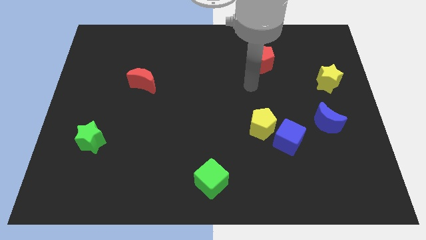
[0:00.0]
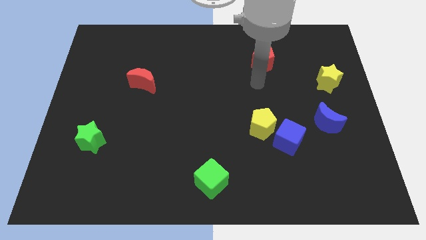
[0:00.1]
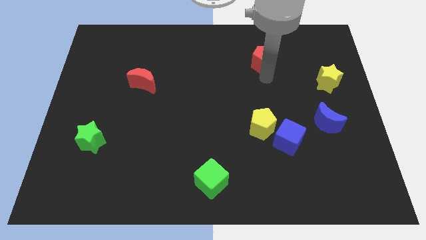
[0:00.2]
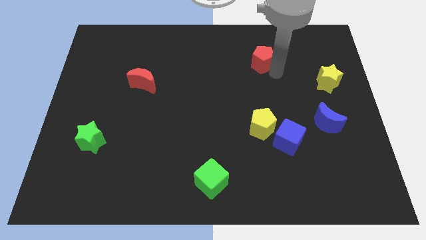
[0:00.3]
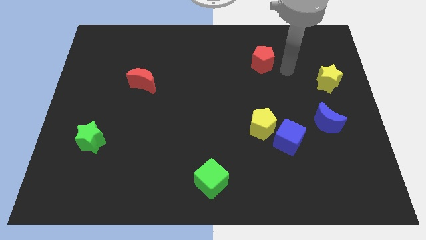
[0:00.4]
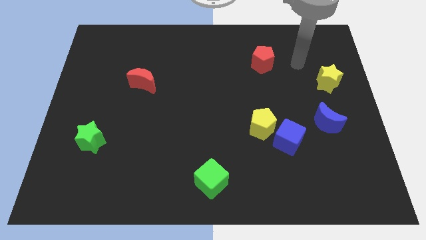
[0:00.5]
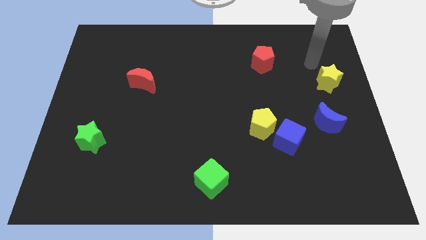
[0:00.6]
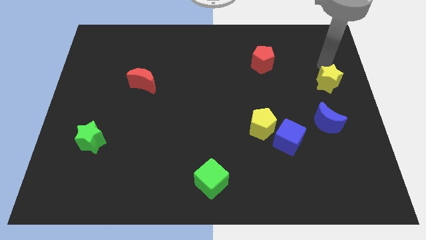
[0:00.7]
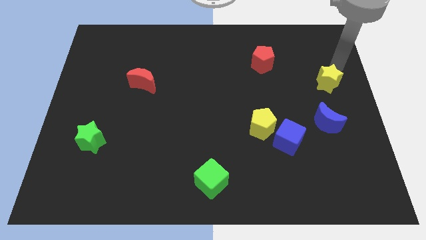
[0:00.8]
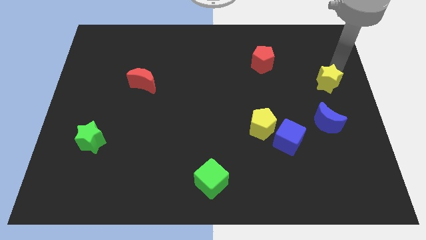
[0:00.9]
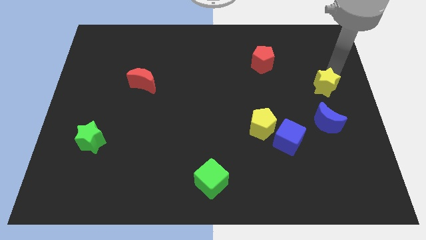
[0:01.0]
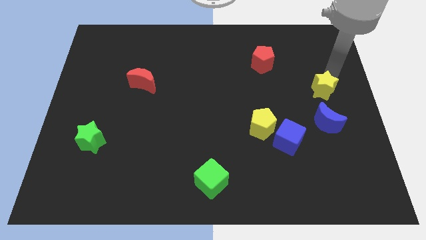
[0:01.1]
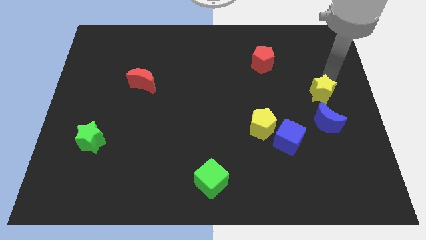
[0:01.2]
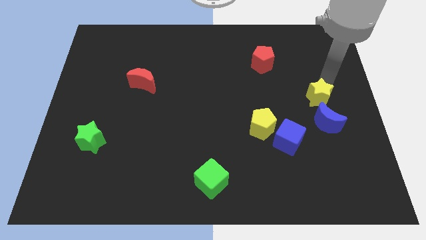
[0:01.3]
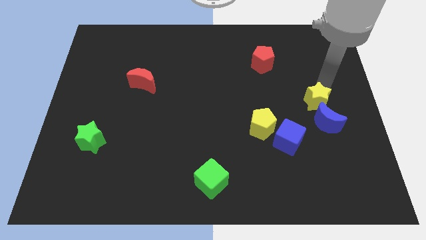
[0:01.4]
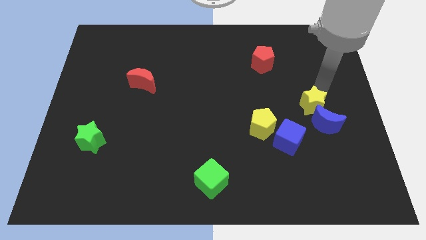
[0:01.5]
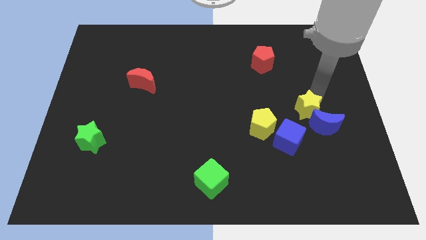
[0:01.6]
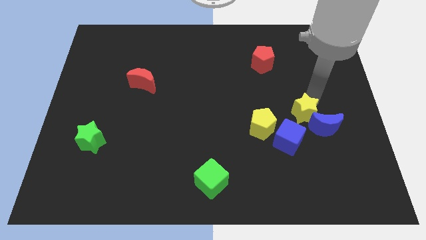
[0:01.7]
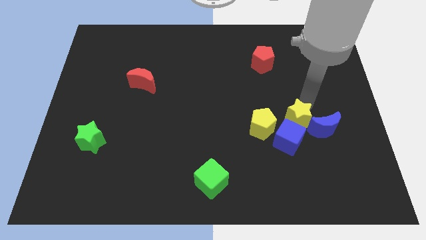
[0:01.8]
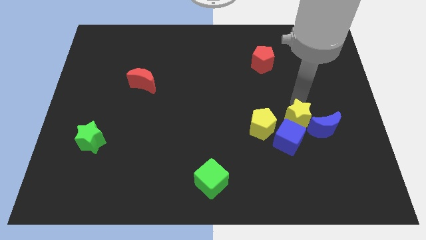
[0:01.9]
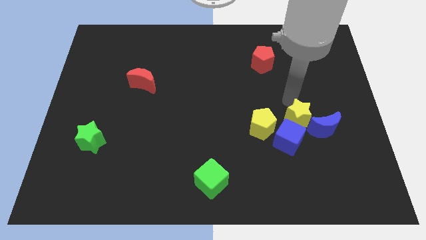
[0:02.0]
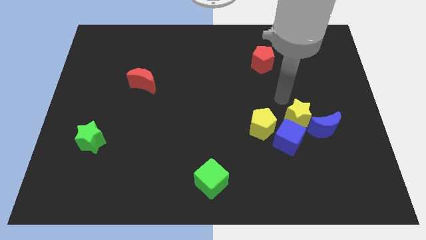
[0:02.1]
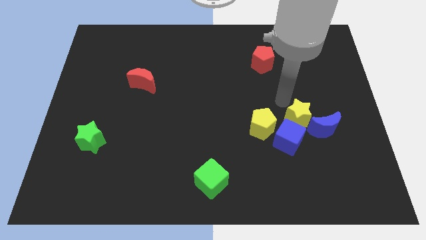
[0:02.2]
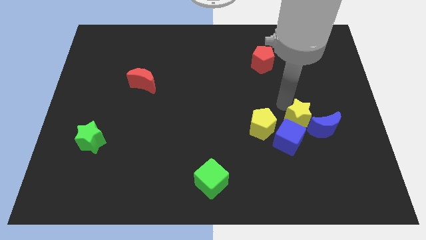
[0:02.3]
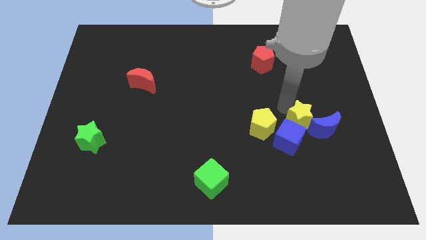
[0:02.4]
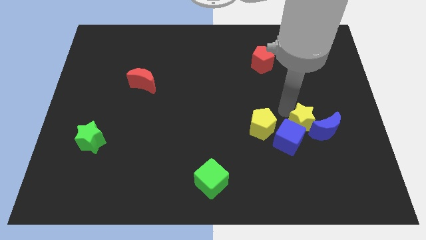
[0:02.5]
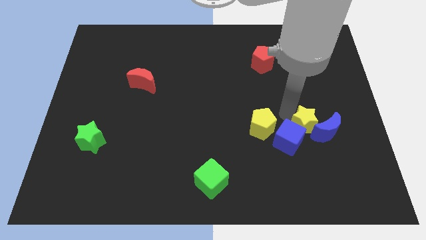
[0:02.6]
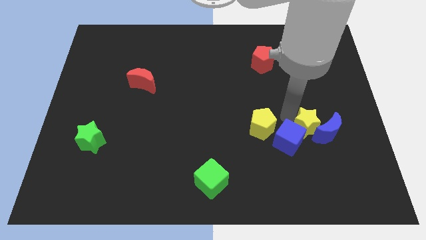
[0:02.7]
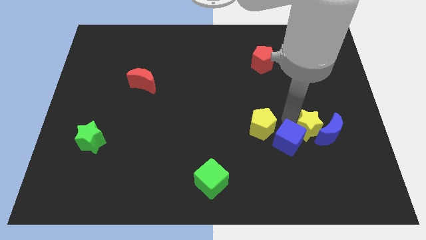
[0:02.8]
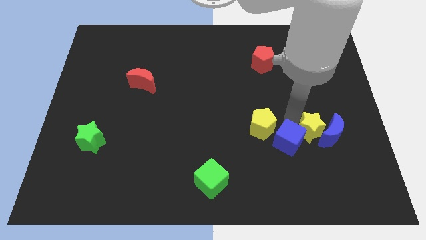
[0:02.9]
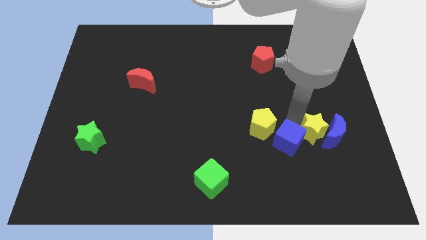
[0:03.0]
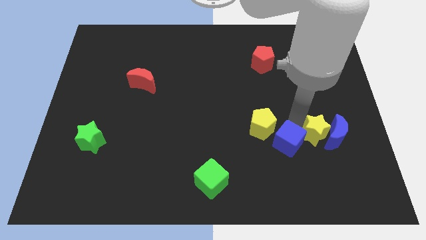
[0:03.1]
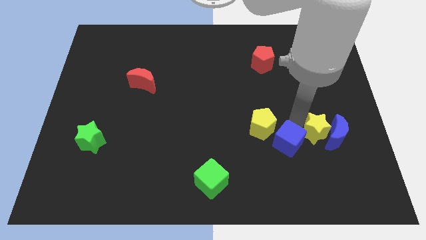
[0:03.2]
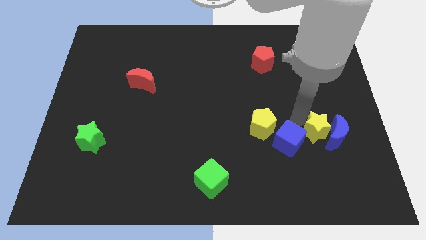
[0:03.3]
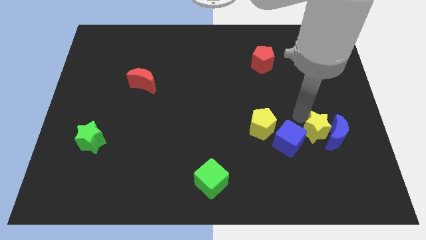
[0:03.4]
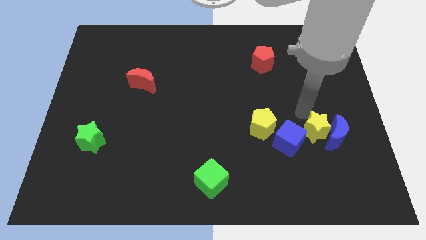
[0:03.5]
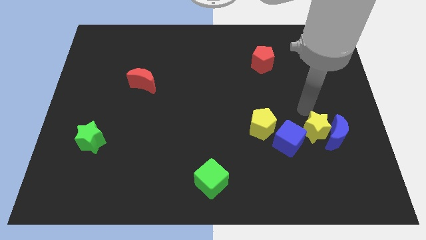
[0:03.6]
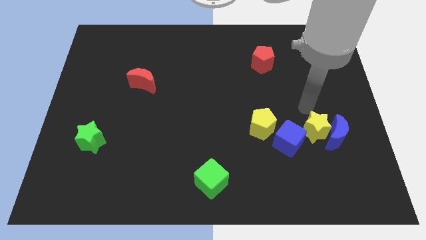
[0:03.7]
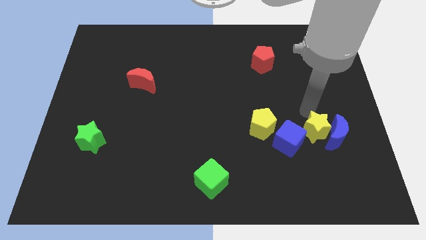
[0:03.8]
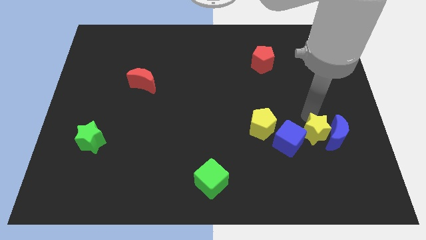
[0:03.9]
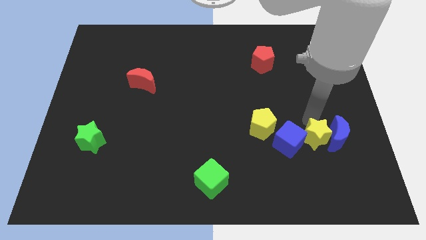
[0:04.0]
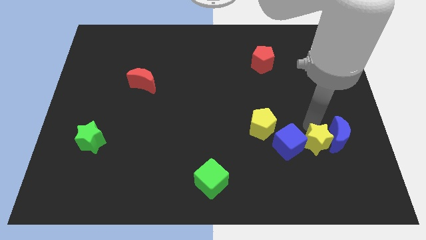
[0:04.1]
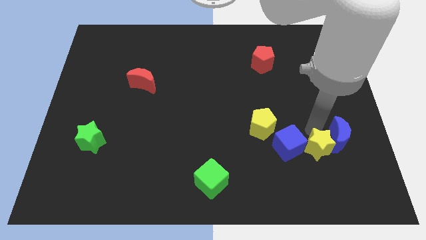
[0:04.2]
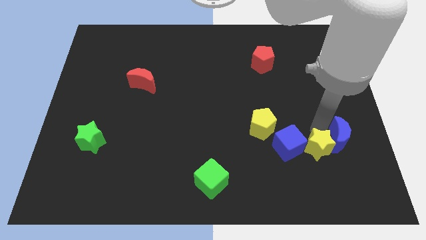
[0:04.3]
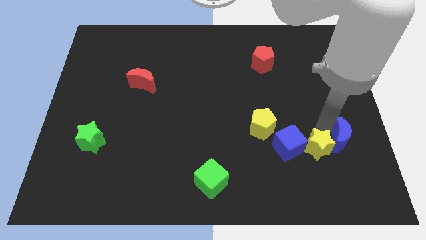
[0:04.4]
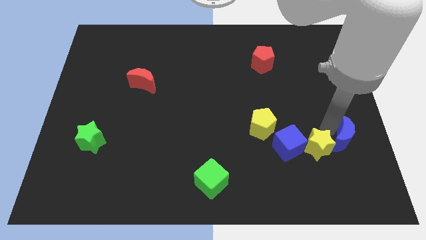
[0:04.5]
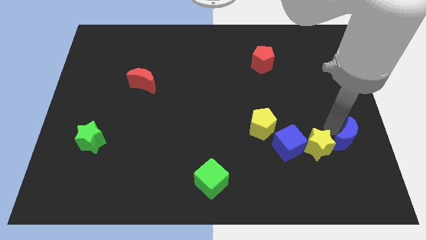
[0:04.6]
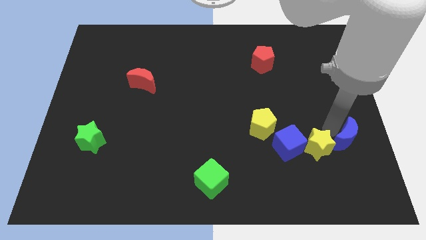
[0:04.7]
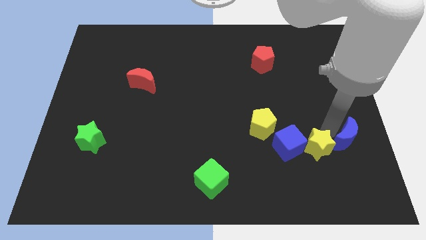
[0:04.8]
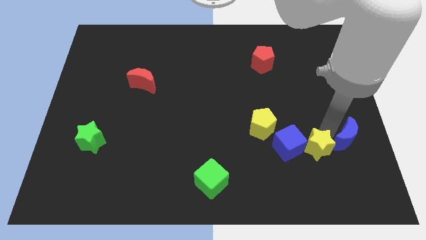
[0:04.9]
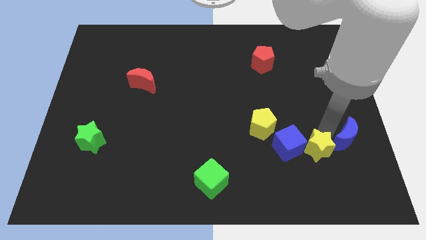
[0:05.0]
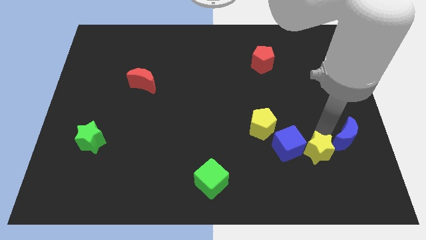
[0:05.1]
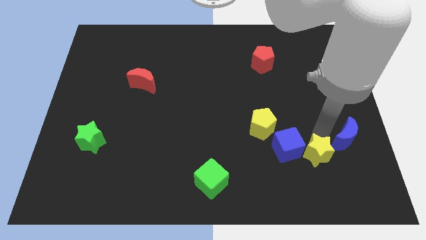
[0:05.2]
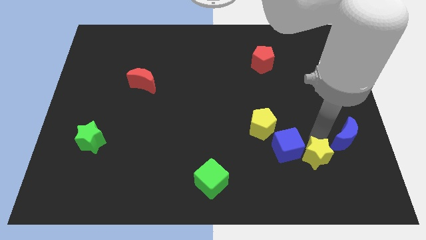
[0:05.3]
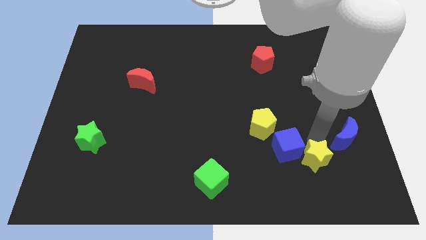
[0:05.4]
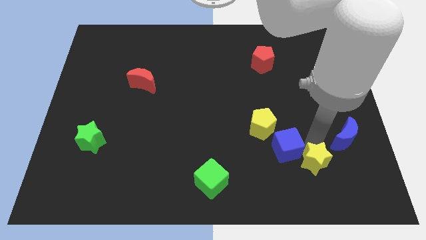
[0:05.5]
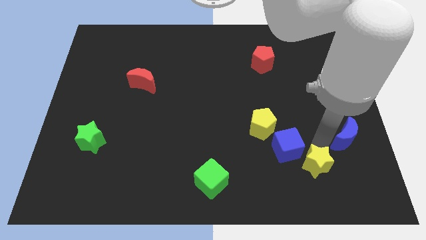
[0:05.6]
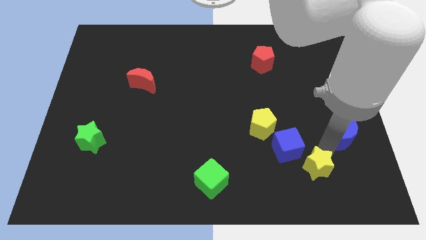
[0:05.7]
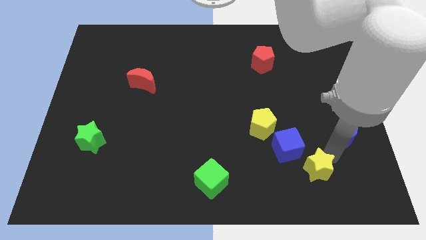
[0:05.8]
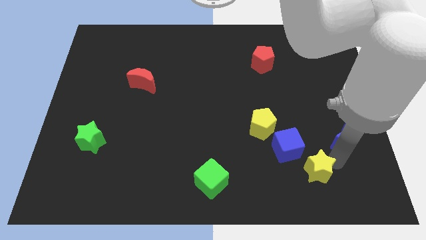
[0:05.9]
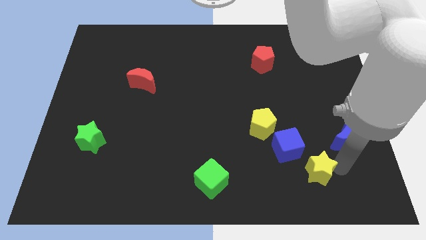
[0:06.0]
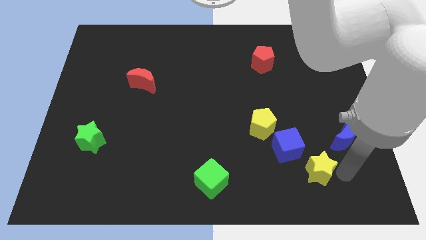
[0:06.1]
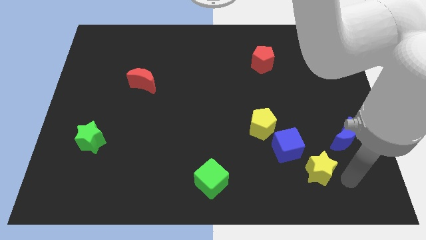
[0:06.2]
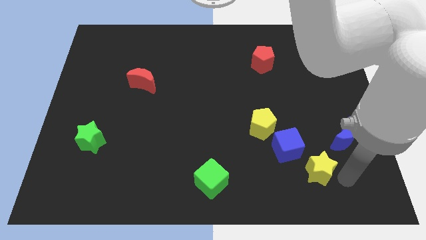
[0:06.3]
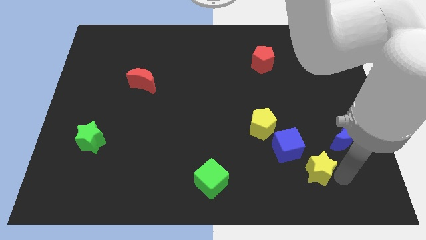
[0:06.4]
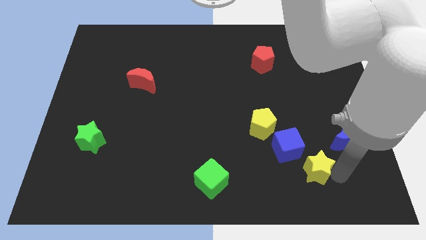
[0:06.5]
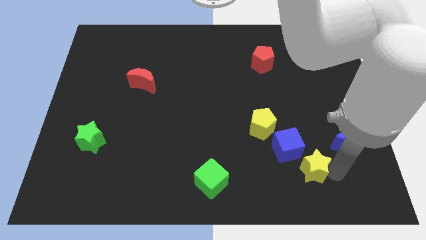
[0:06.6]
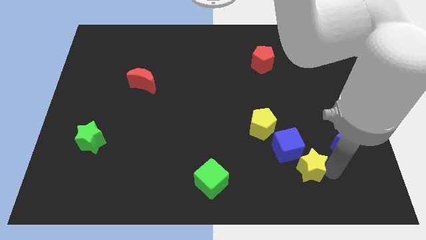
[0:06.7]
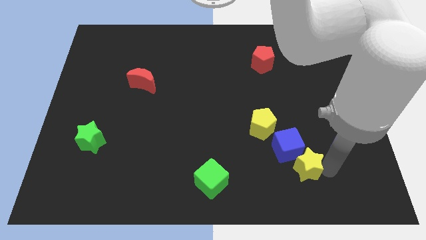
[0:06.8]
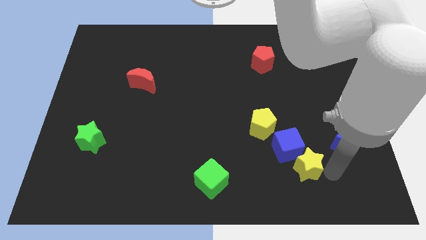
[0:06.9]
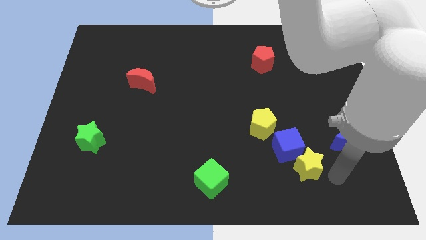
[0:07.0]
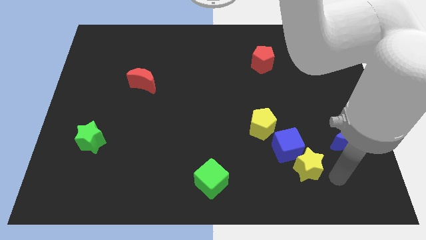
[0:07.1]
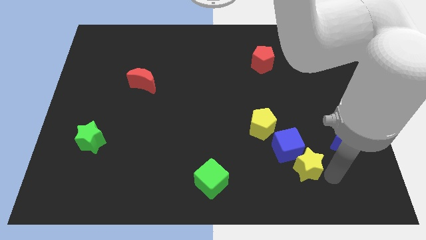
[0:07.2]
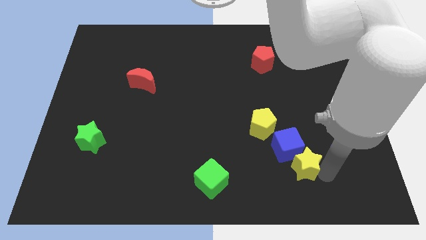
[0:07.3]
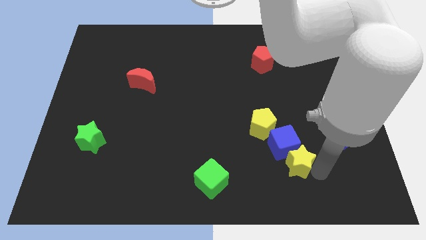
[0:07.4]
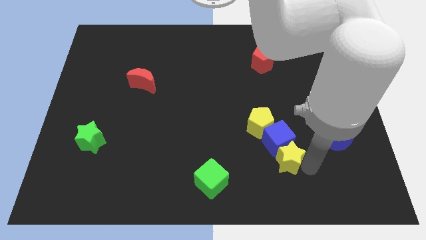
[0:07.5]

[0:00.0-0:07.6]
put the yellow star diagonally down and to the left of the blue cube
